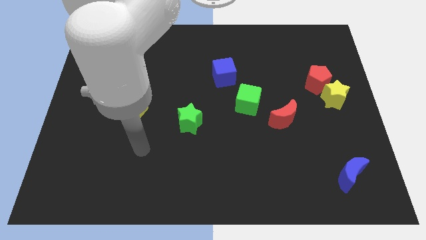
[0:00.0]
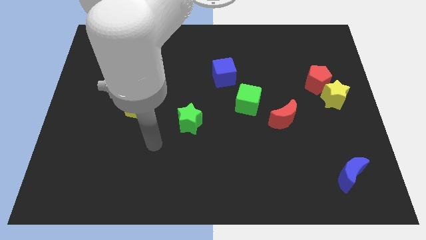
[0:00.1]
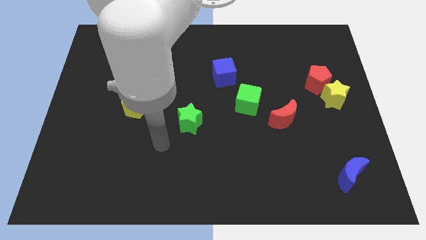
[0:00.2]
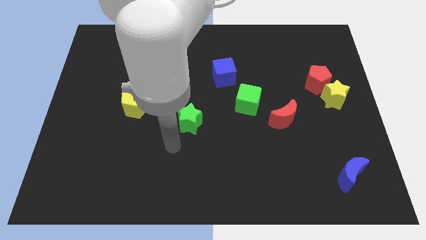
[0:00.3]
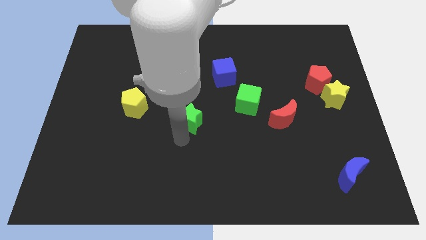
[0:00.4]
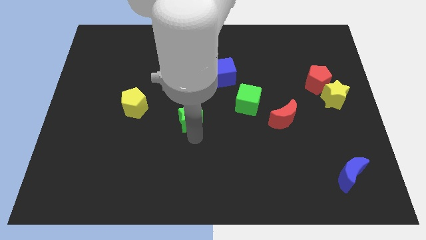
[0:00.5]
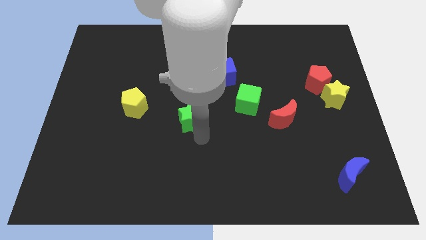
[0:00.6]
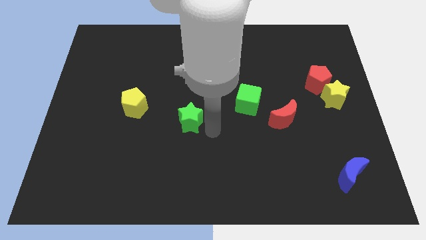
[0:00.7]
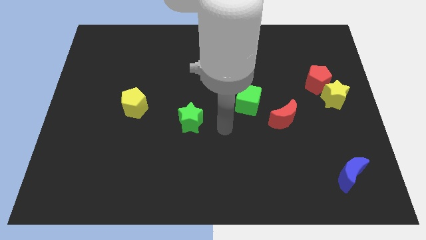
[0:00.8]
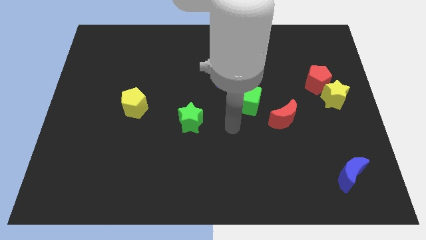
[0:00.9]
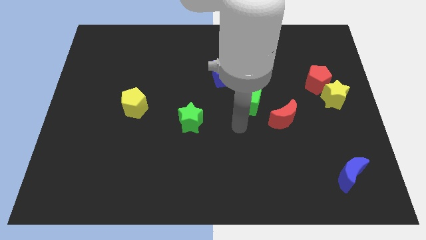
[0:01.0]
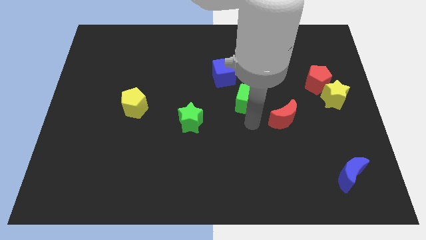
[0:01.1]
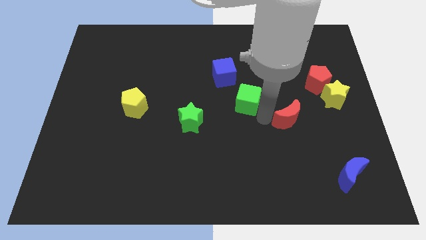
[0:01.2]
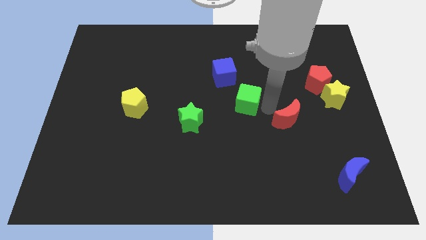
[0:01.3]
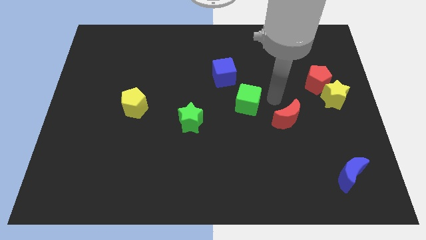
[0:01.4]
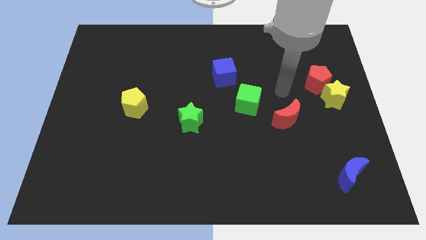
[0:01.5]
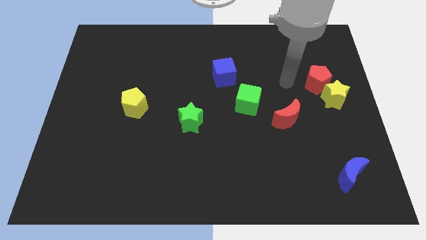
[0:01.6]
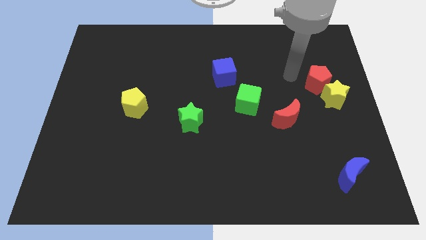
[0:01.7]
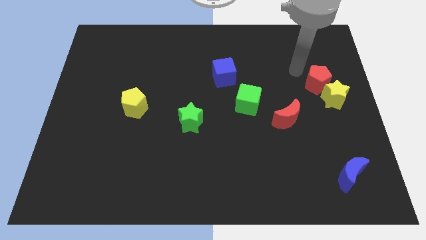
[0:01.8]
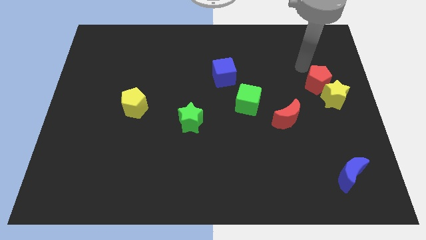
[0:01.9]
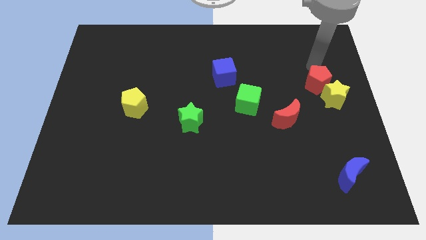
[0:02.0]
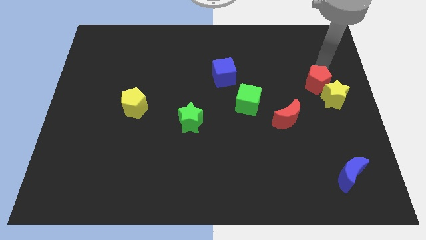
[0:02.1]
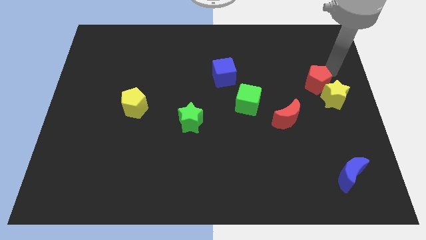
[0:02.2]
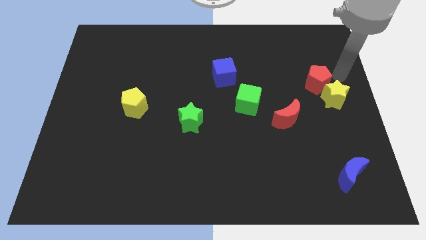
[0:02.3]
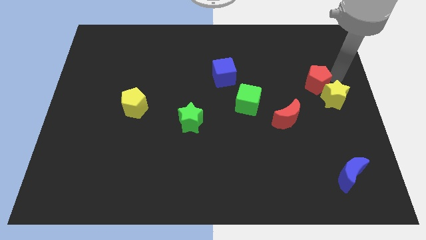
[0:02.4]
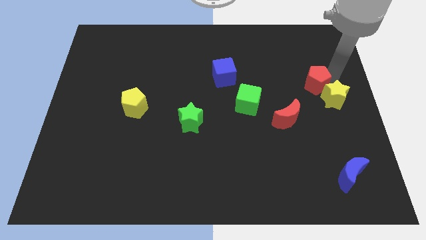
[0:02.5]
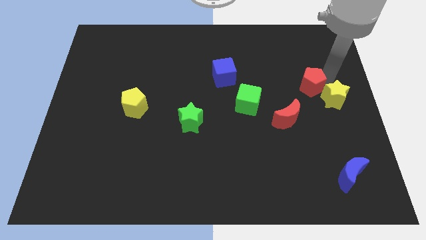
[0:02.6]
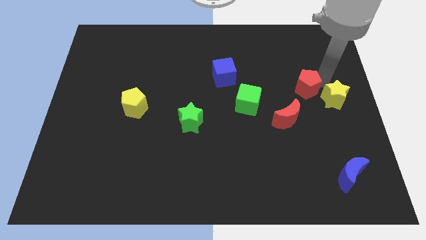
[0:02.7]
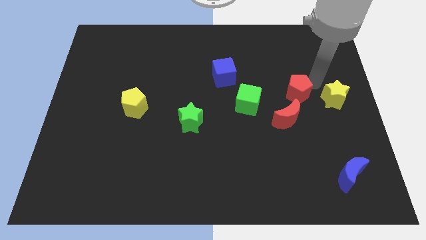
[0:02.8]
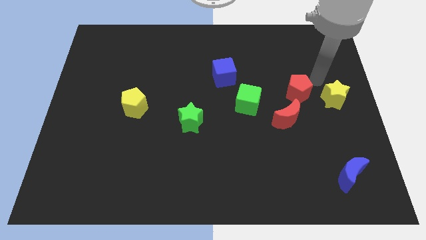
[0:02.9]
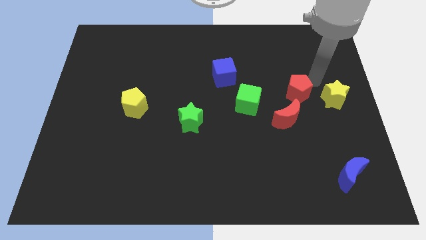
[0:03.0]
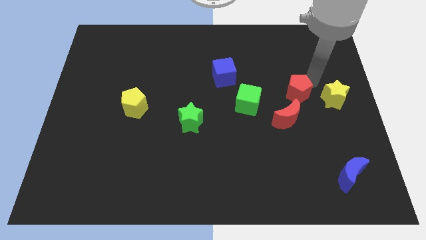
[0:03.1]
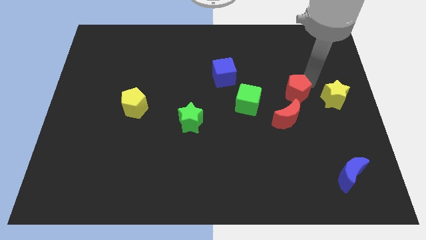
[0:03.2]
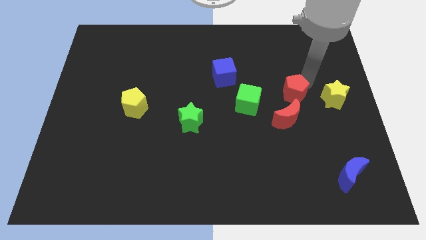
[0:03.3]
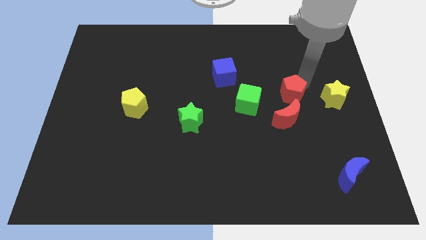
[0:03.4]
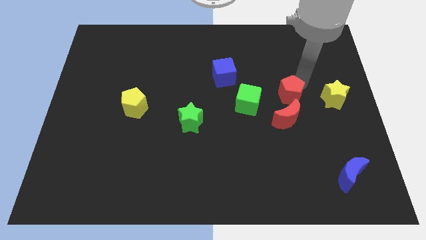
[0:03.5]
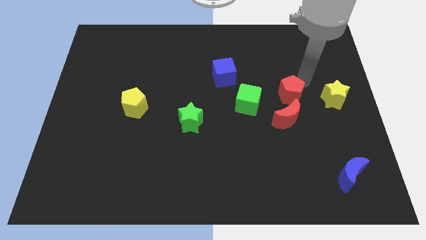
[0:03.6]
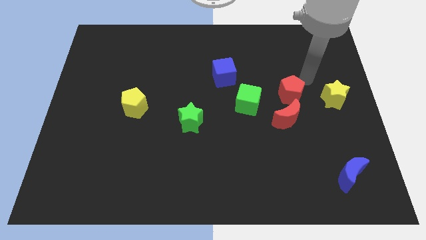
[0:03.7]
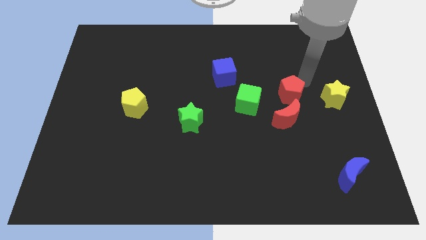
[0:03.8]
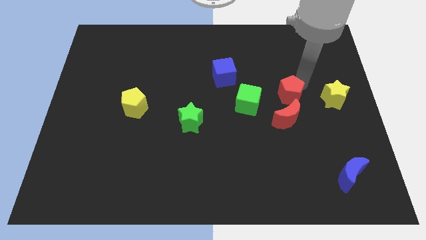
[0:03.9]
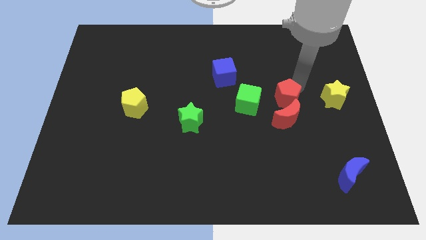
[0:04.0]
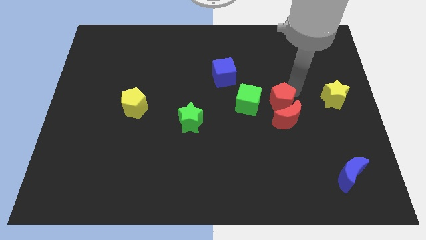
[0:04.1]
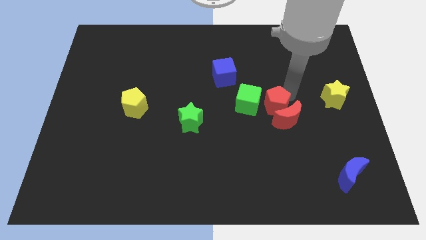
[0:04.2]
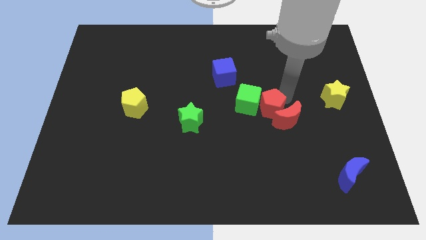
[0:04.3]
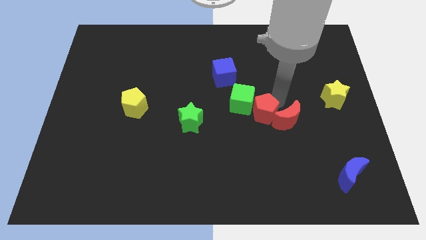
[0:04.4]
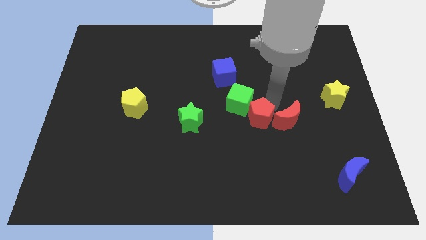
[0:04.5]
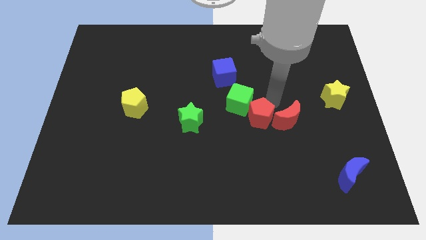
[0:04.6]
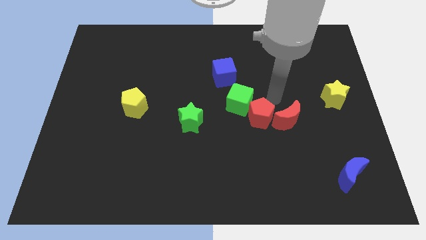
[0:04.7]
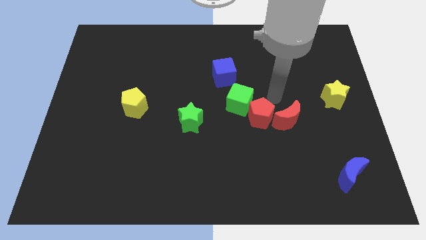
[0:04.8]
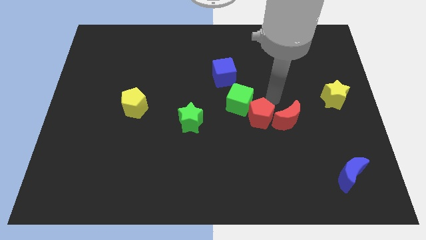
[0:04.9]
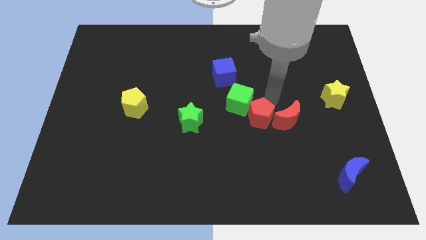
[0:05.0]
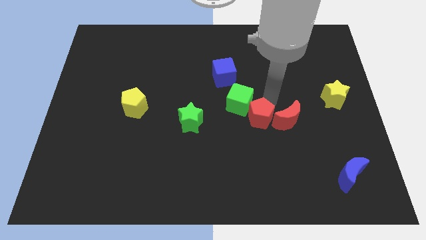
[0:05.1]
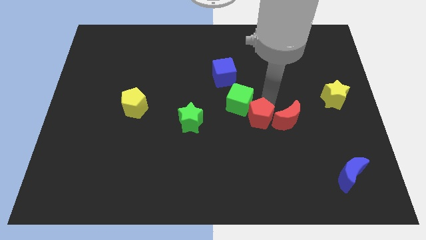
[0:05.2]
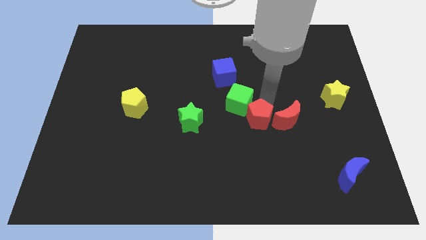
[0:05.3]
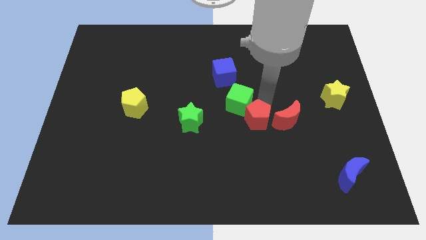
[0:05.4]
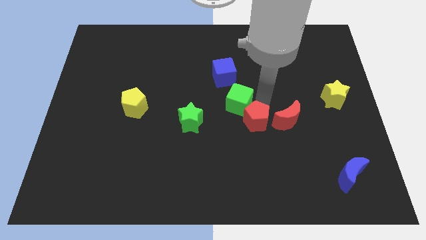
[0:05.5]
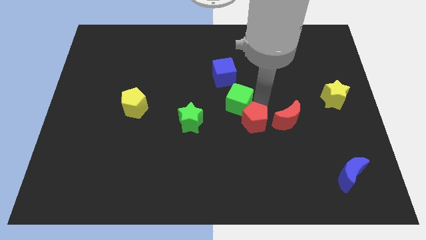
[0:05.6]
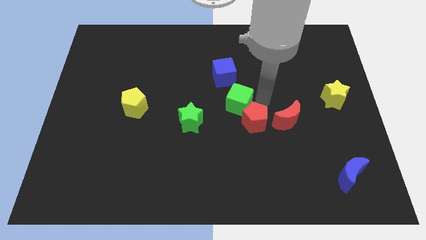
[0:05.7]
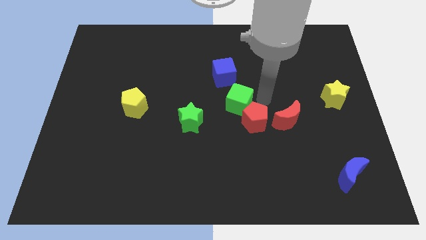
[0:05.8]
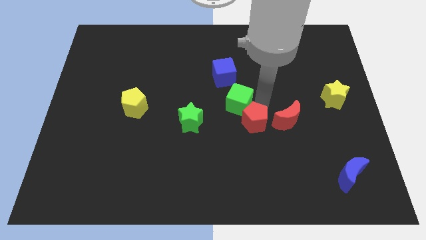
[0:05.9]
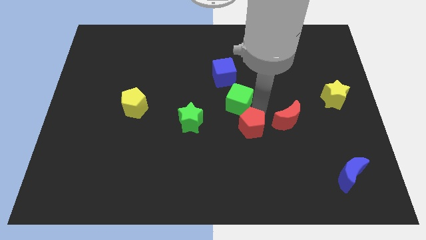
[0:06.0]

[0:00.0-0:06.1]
slide the red pentagon downwards and then left

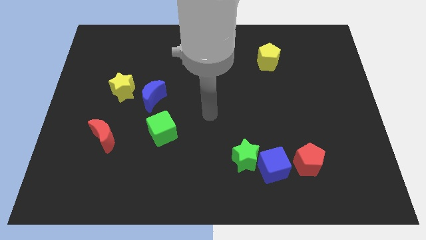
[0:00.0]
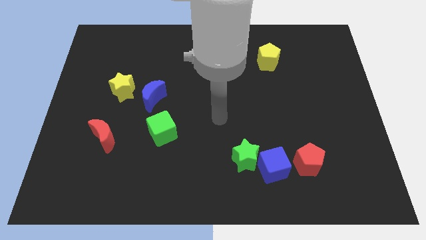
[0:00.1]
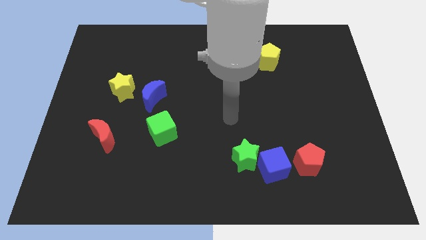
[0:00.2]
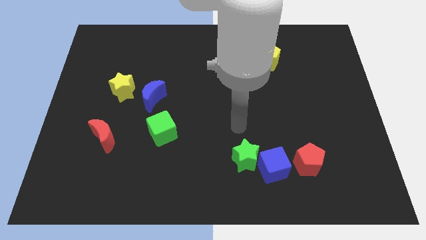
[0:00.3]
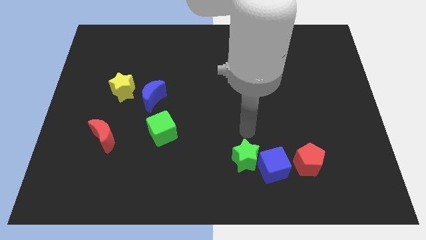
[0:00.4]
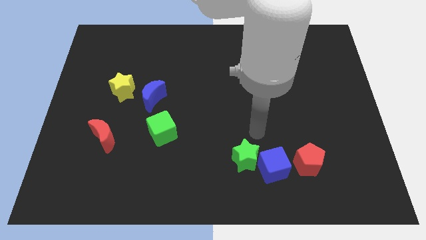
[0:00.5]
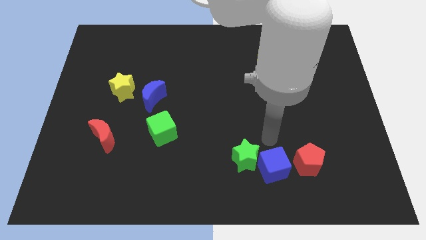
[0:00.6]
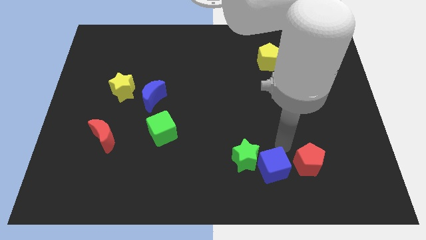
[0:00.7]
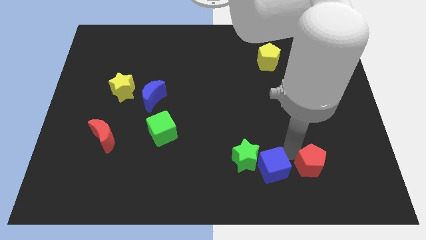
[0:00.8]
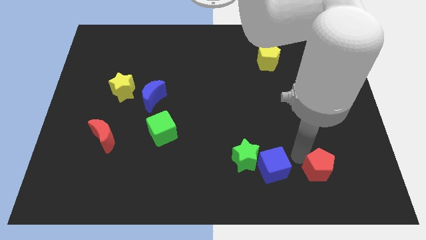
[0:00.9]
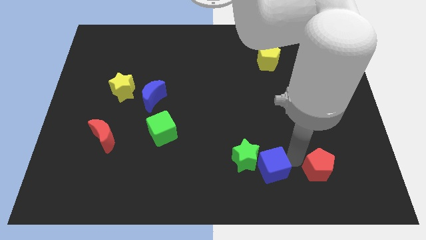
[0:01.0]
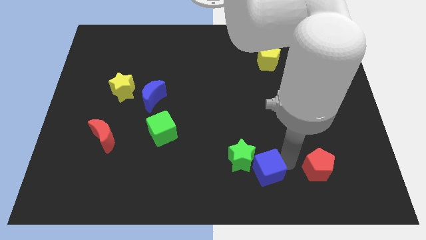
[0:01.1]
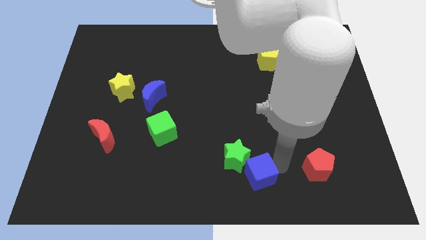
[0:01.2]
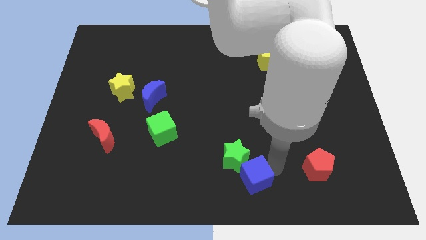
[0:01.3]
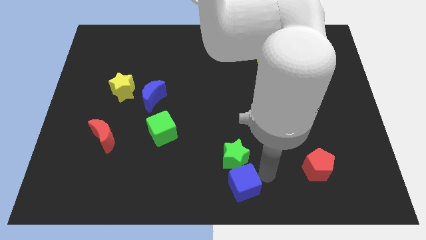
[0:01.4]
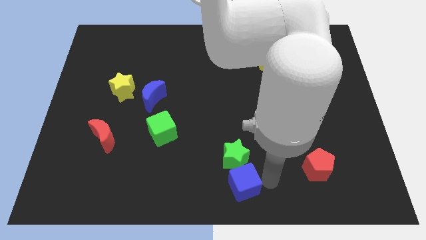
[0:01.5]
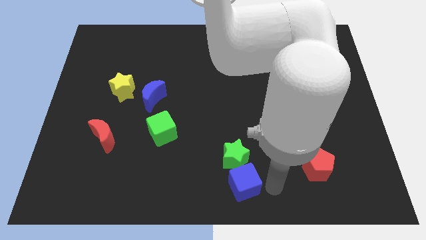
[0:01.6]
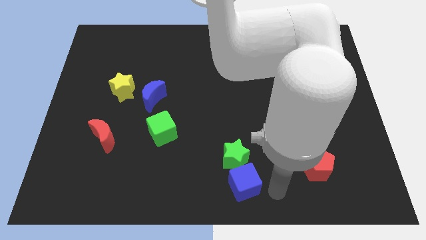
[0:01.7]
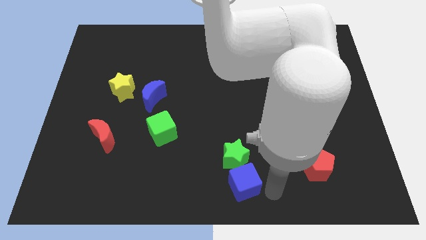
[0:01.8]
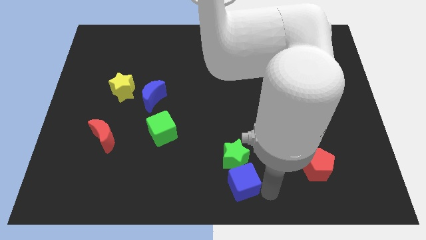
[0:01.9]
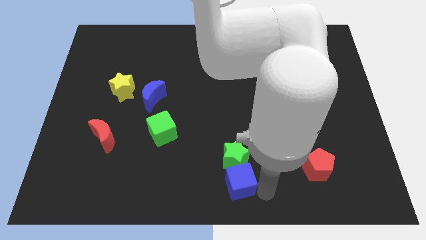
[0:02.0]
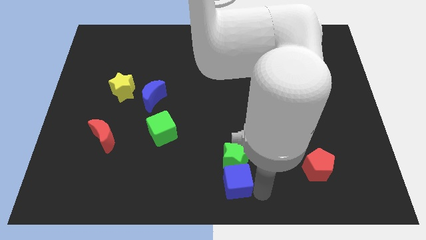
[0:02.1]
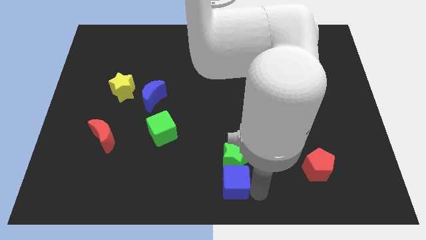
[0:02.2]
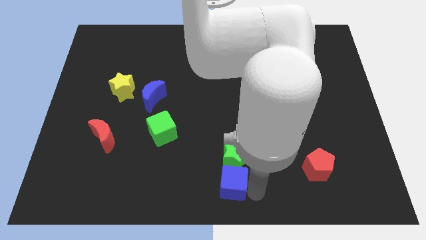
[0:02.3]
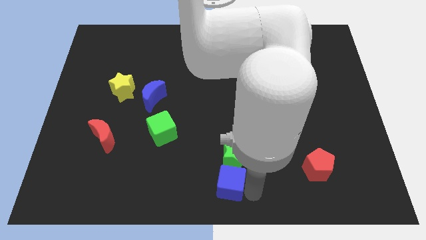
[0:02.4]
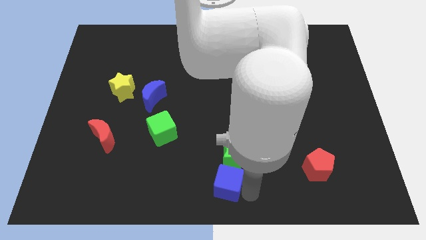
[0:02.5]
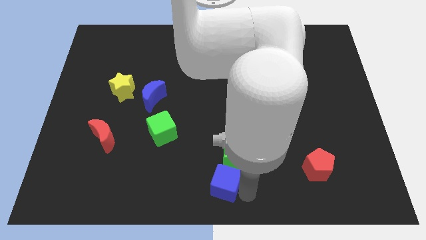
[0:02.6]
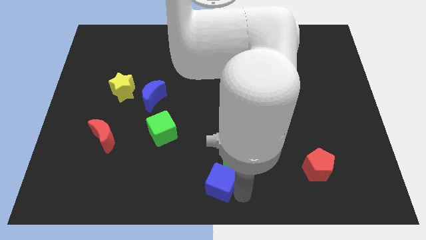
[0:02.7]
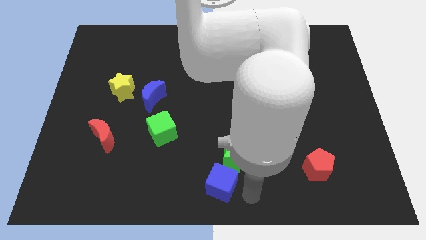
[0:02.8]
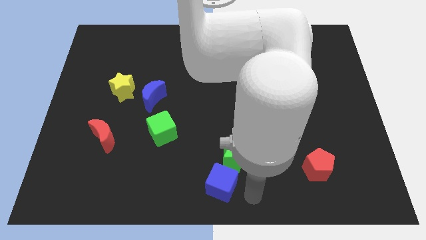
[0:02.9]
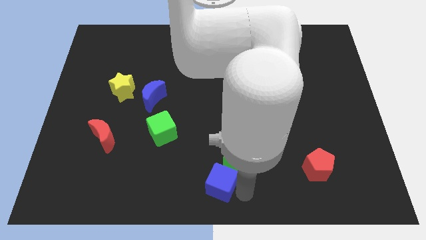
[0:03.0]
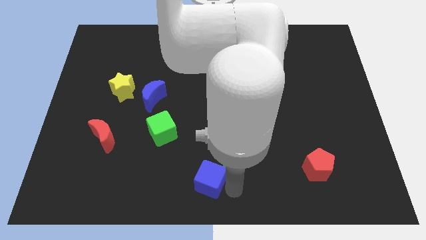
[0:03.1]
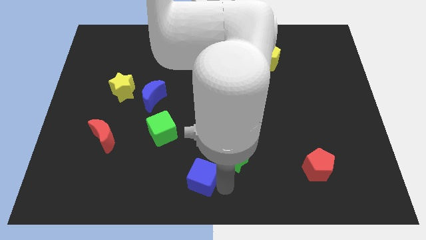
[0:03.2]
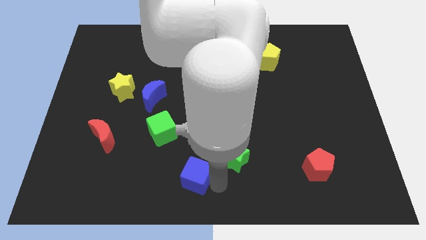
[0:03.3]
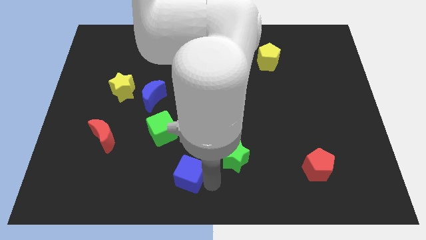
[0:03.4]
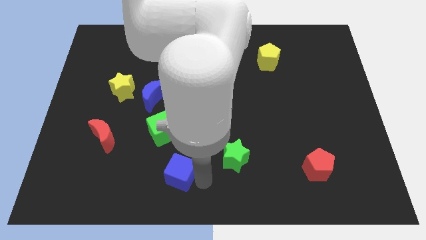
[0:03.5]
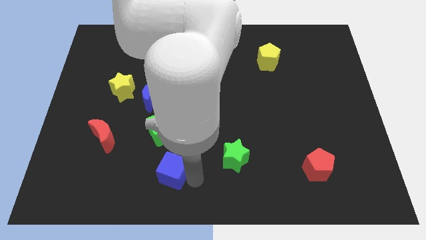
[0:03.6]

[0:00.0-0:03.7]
push the blue cube to the left
